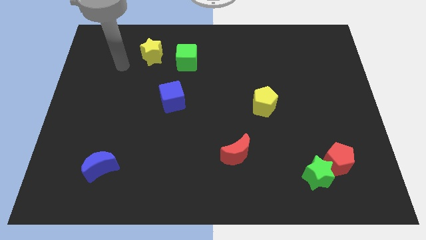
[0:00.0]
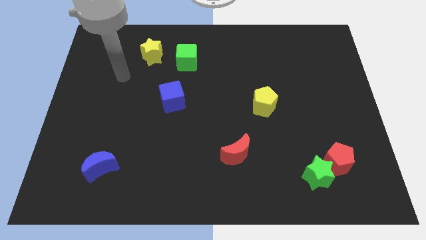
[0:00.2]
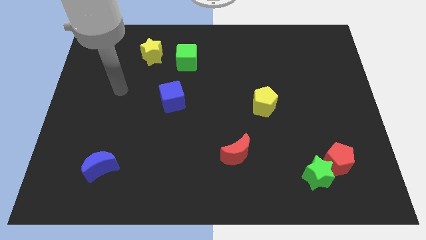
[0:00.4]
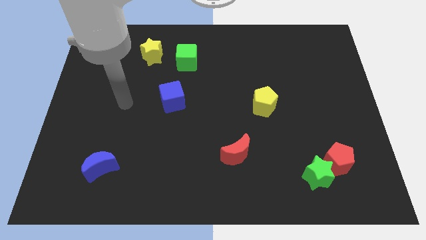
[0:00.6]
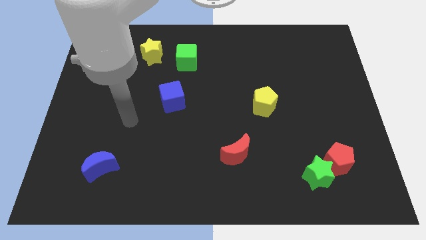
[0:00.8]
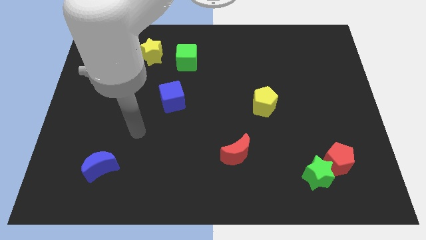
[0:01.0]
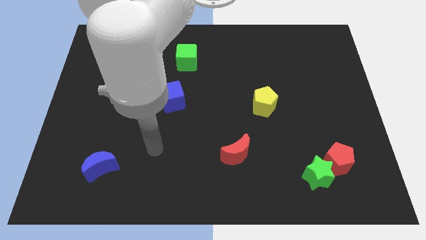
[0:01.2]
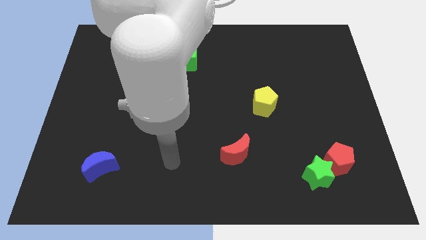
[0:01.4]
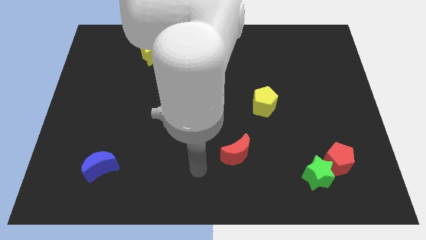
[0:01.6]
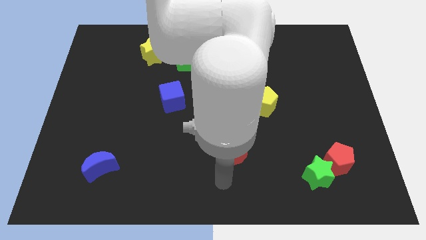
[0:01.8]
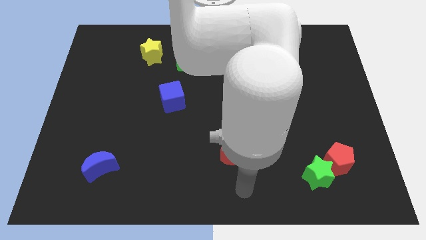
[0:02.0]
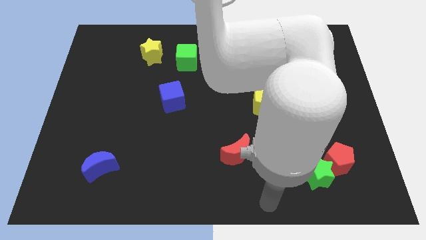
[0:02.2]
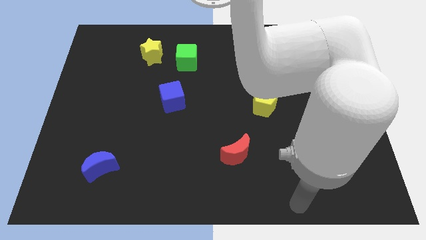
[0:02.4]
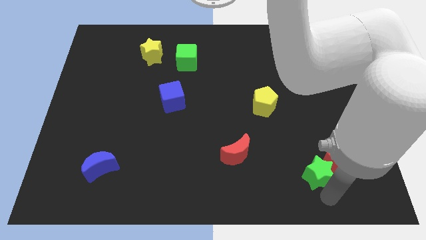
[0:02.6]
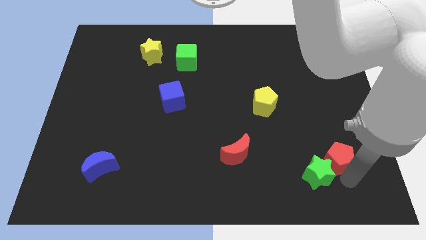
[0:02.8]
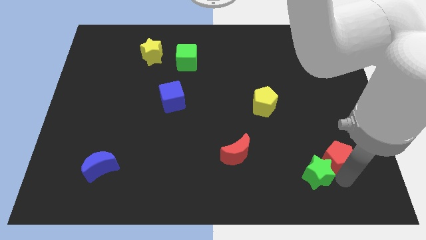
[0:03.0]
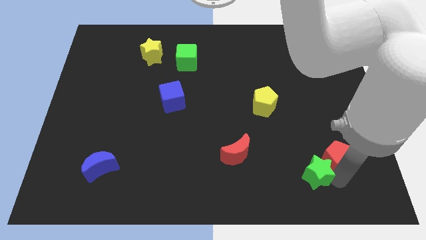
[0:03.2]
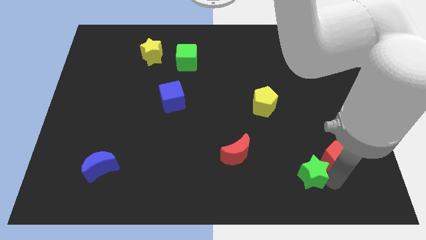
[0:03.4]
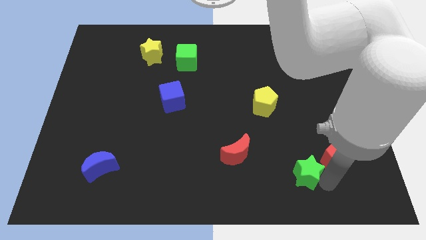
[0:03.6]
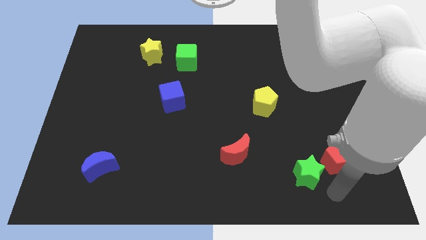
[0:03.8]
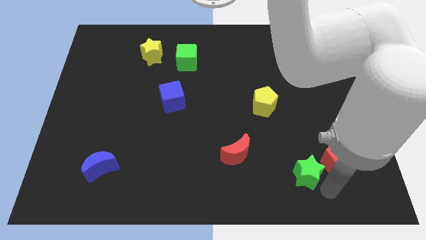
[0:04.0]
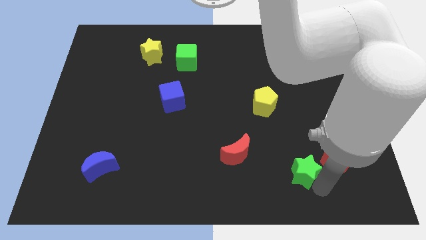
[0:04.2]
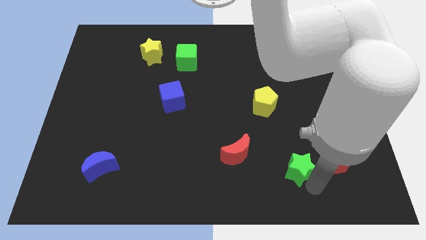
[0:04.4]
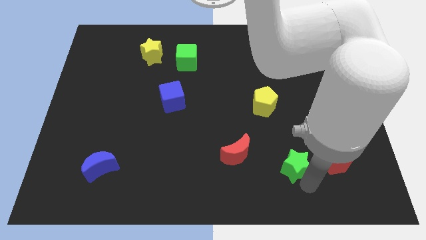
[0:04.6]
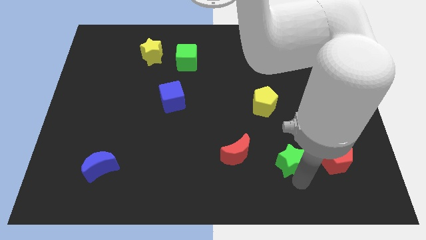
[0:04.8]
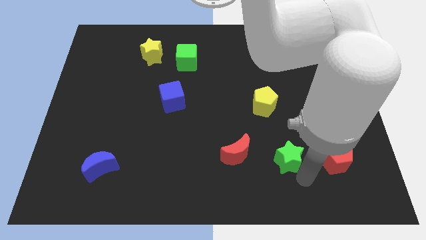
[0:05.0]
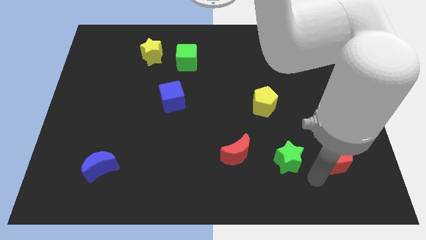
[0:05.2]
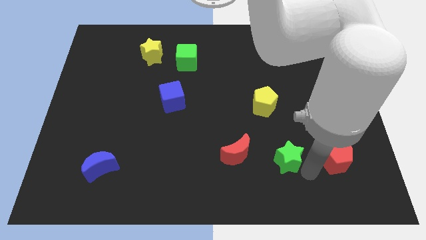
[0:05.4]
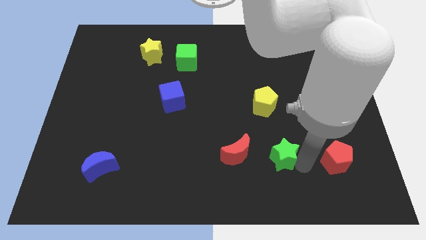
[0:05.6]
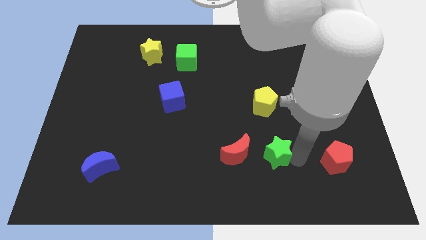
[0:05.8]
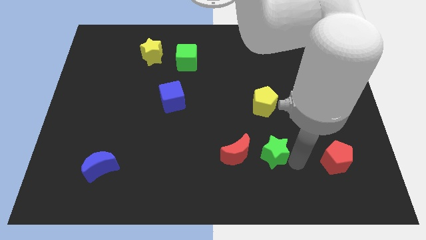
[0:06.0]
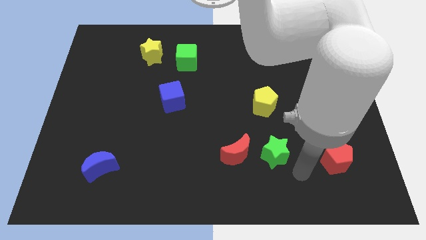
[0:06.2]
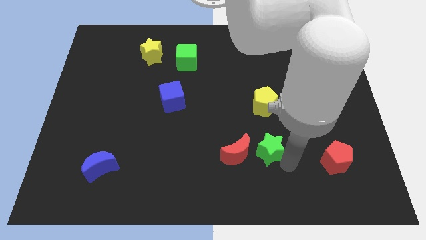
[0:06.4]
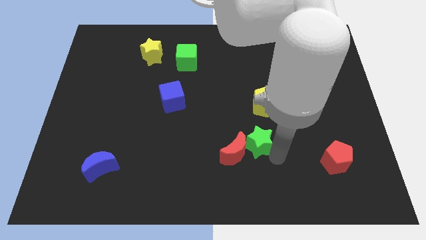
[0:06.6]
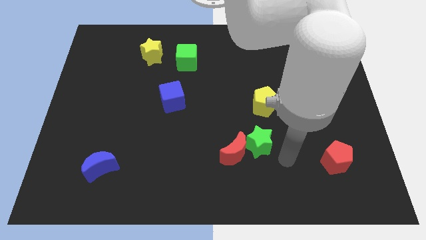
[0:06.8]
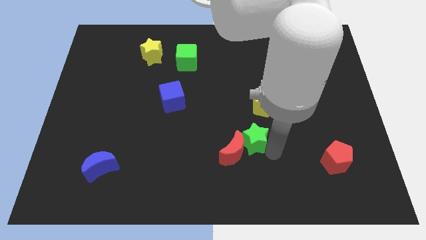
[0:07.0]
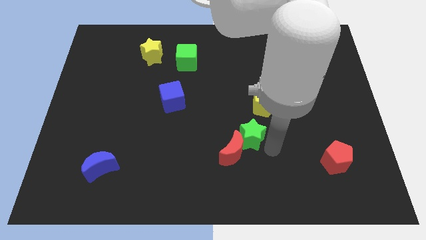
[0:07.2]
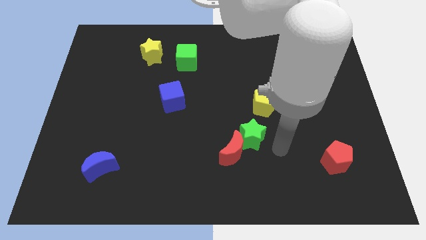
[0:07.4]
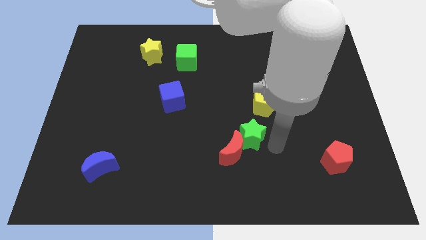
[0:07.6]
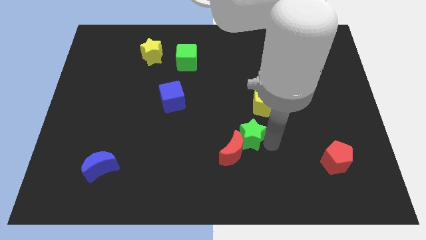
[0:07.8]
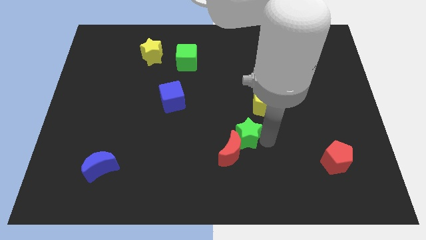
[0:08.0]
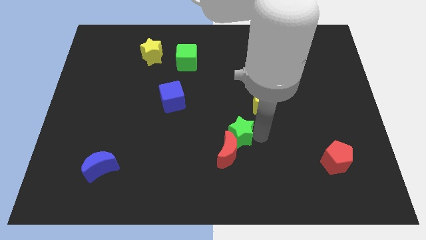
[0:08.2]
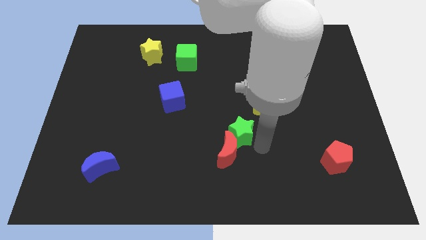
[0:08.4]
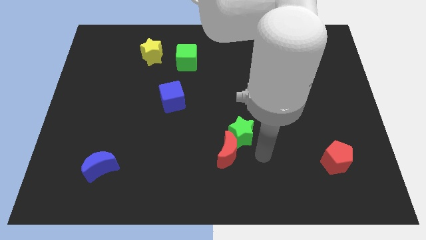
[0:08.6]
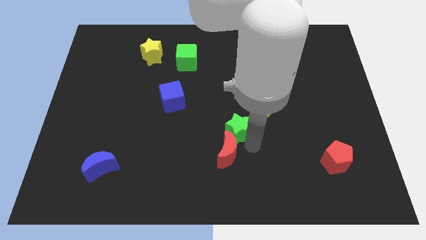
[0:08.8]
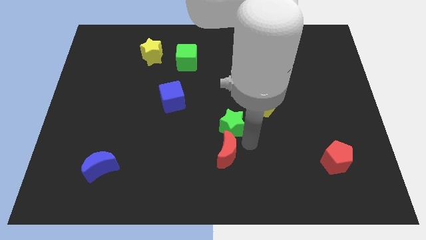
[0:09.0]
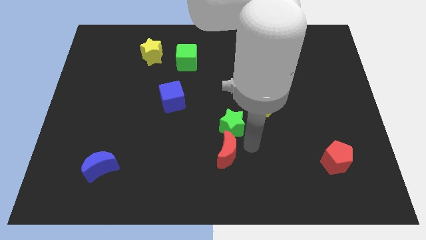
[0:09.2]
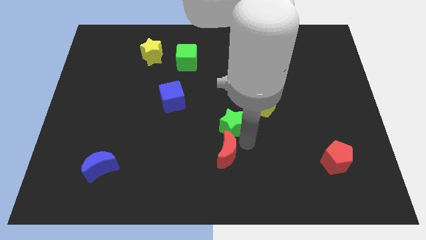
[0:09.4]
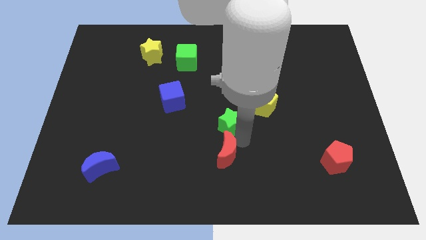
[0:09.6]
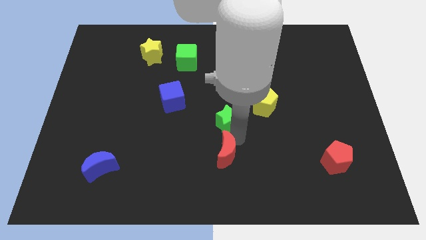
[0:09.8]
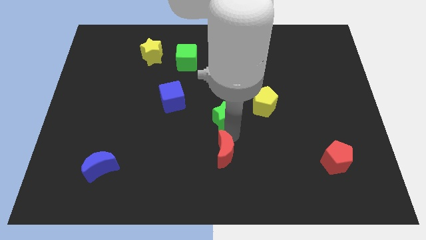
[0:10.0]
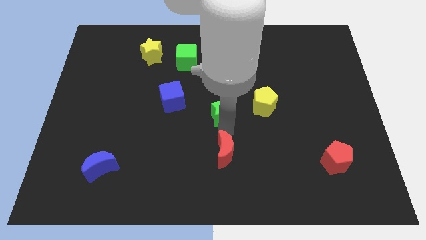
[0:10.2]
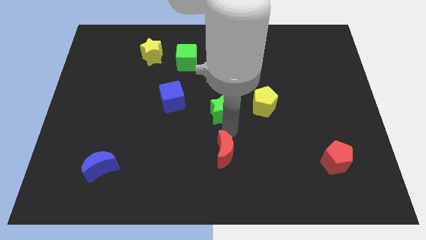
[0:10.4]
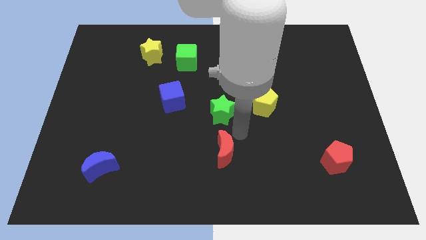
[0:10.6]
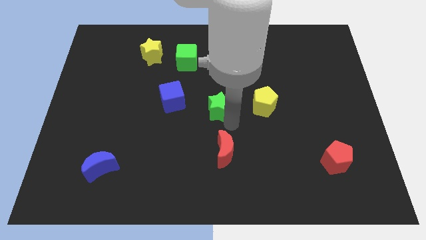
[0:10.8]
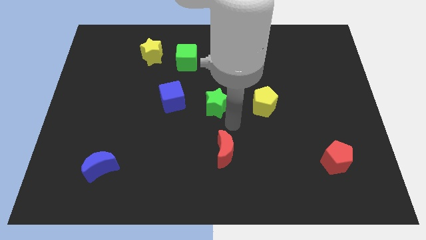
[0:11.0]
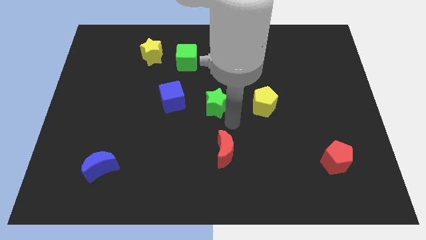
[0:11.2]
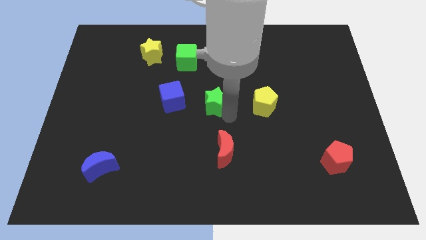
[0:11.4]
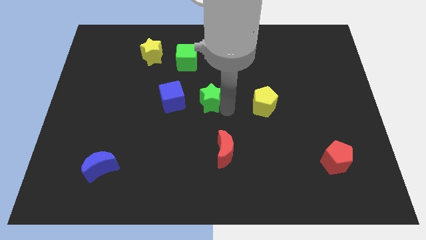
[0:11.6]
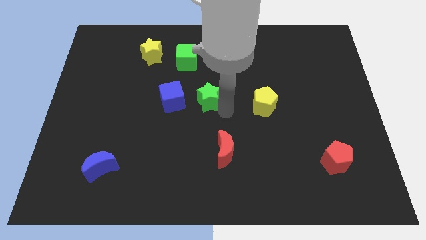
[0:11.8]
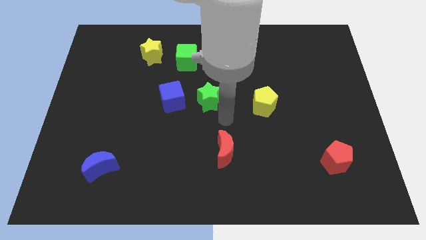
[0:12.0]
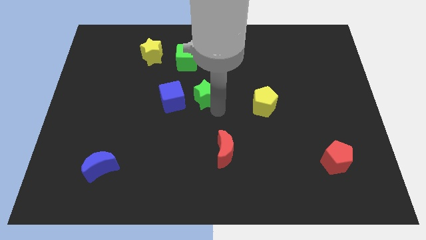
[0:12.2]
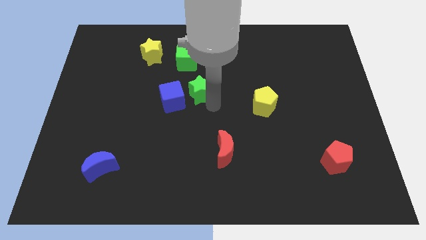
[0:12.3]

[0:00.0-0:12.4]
push the green star to the top right of the blue cube

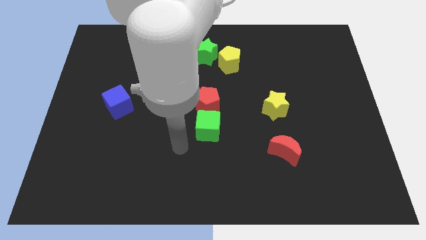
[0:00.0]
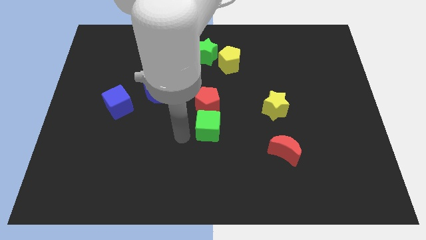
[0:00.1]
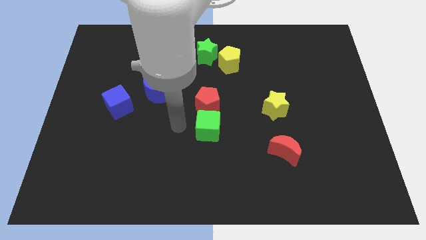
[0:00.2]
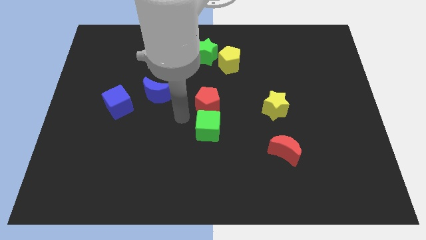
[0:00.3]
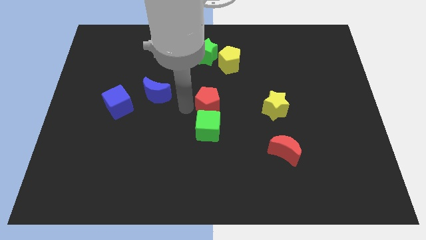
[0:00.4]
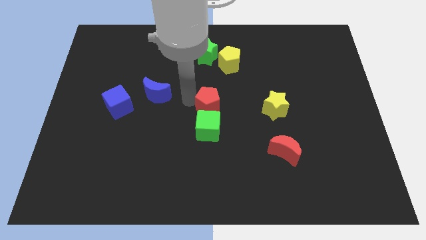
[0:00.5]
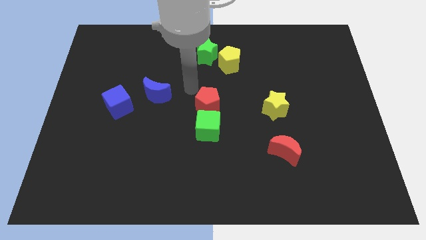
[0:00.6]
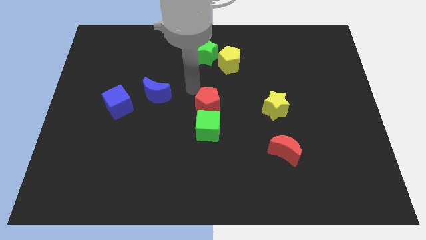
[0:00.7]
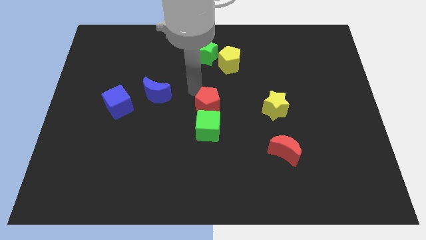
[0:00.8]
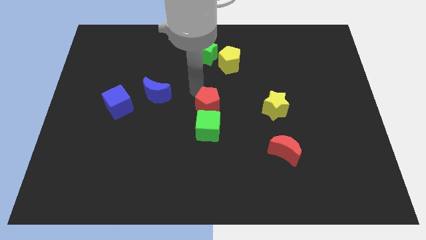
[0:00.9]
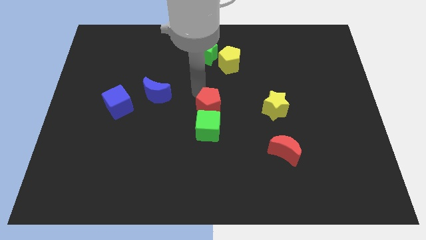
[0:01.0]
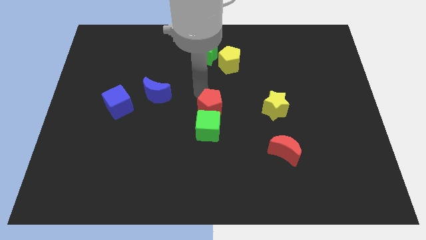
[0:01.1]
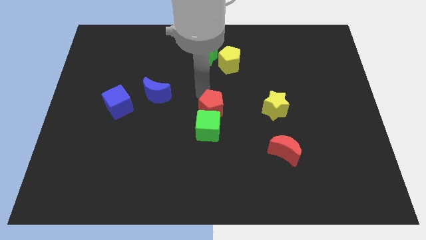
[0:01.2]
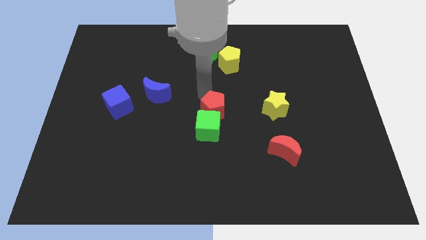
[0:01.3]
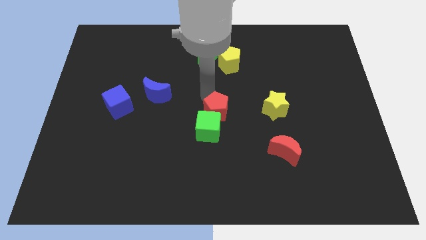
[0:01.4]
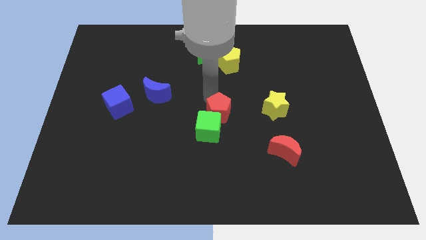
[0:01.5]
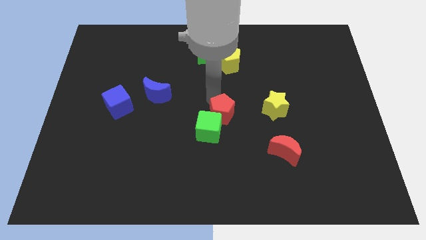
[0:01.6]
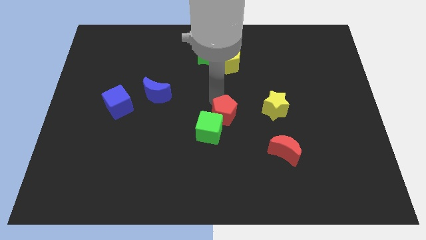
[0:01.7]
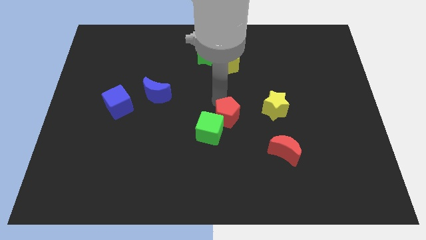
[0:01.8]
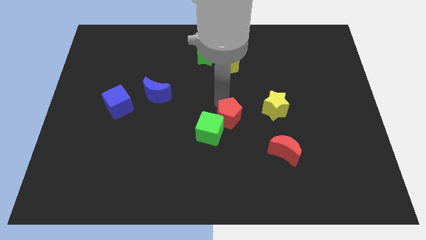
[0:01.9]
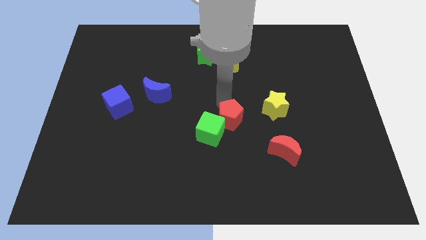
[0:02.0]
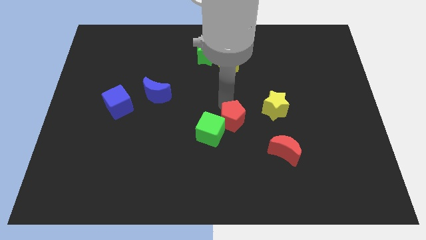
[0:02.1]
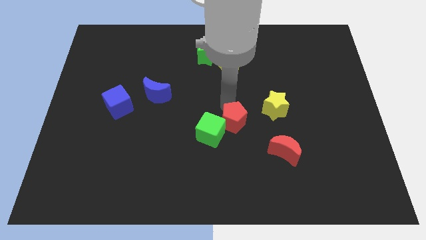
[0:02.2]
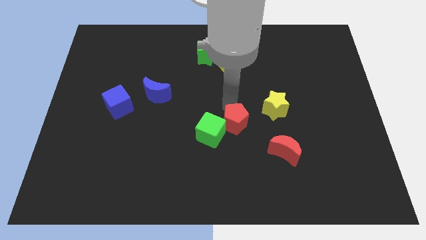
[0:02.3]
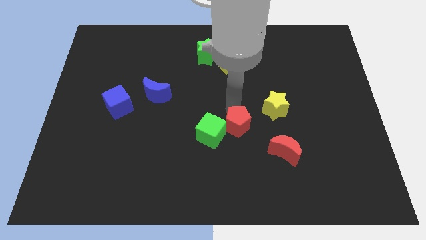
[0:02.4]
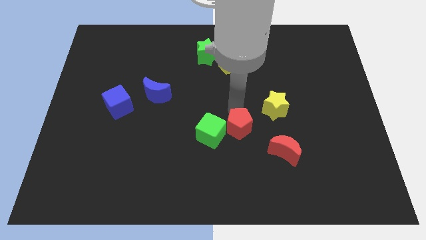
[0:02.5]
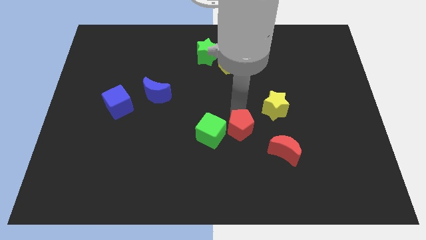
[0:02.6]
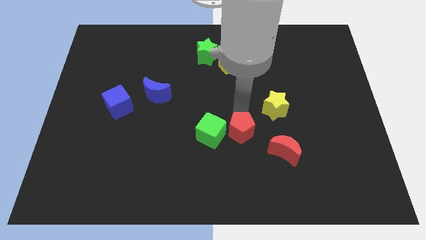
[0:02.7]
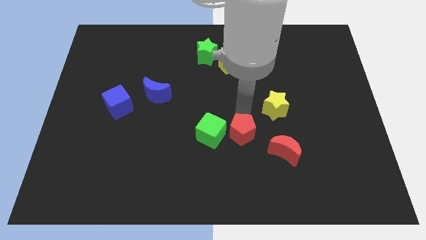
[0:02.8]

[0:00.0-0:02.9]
slide the red pentagon to the left of the red moon
